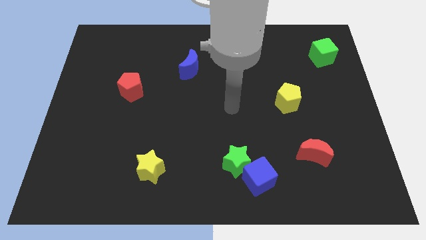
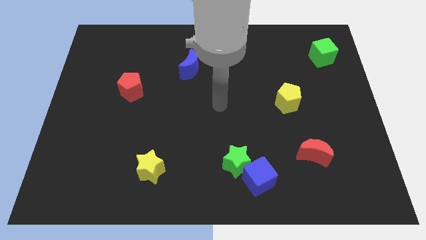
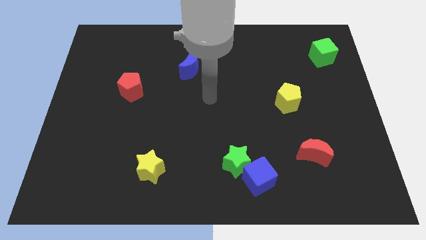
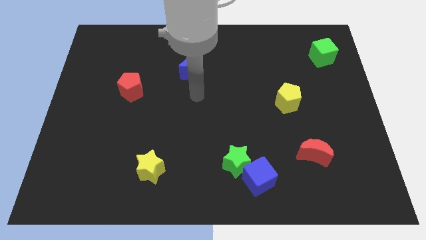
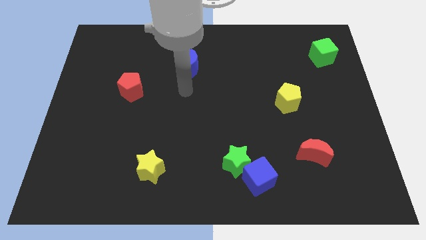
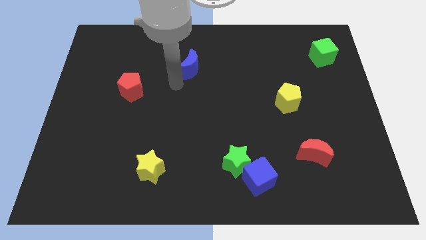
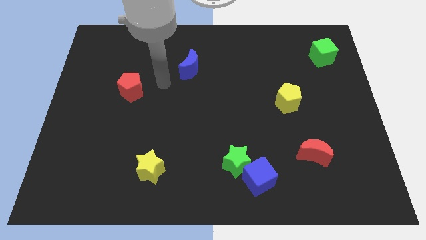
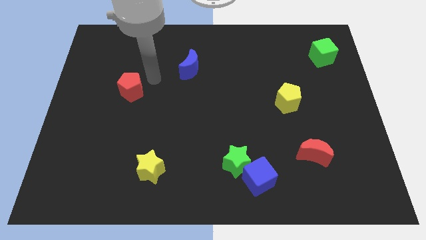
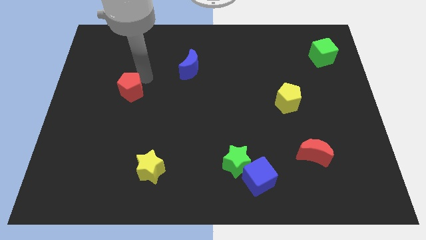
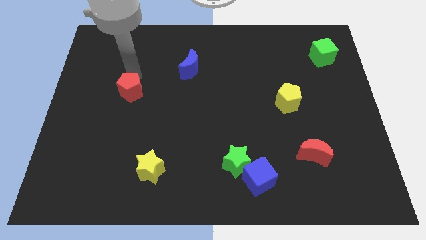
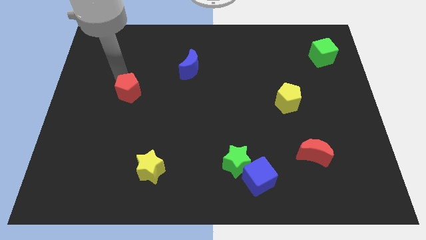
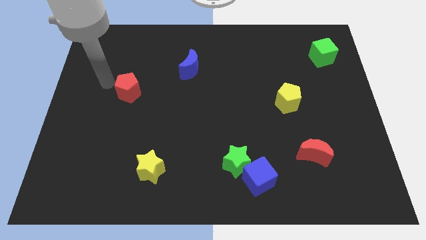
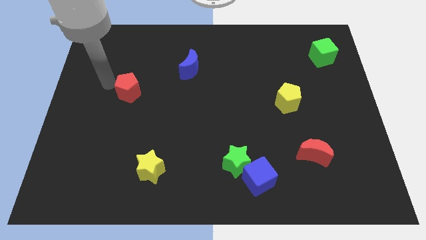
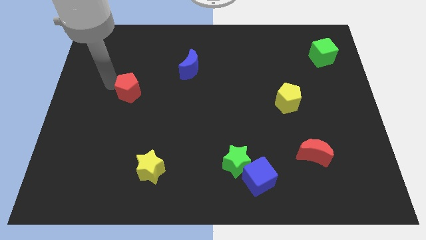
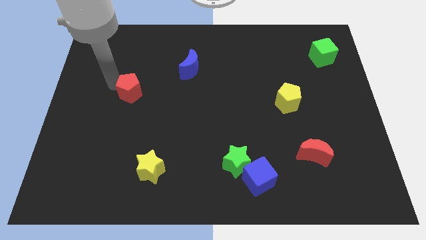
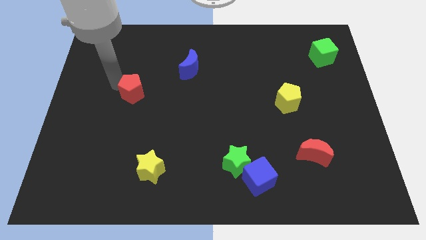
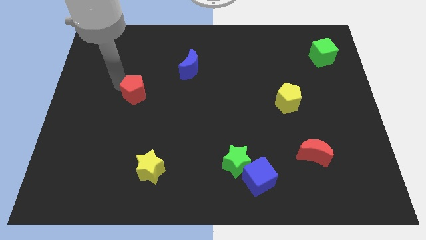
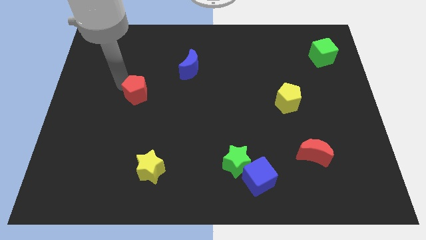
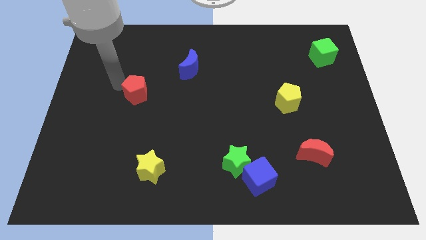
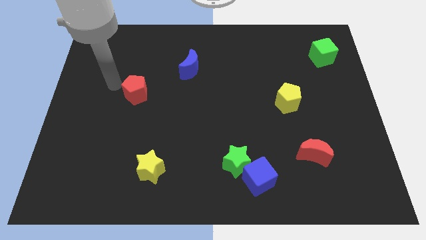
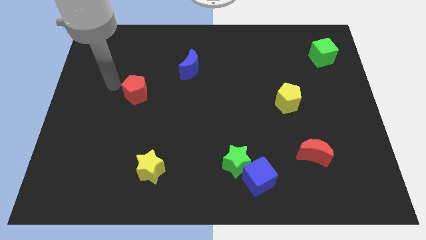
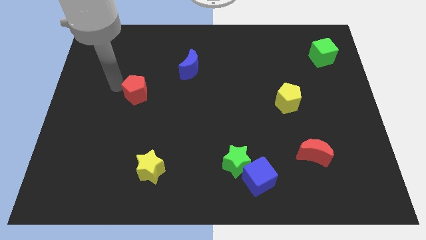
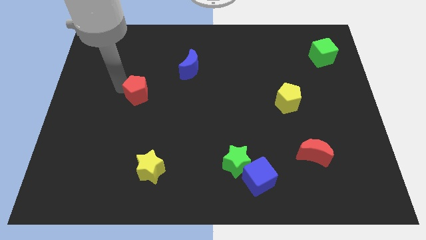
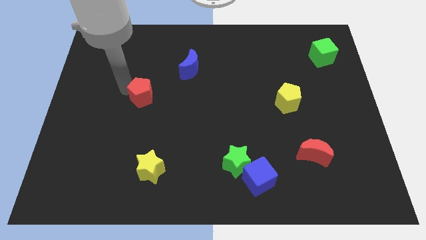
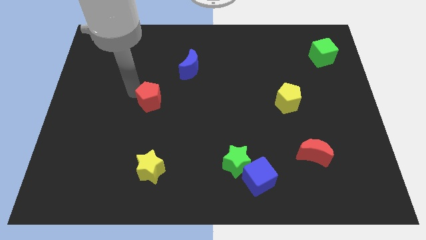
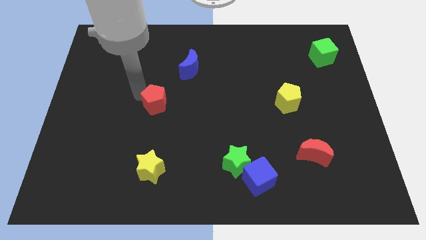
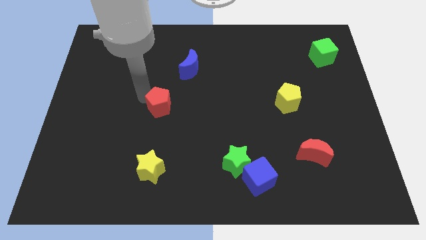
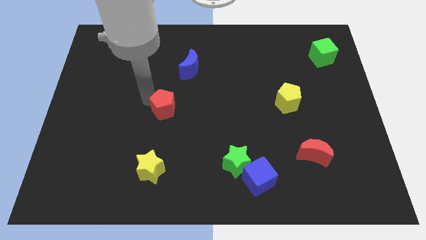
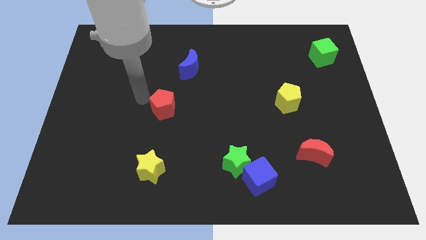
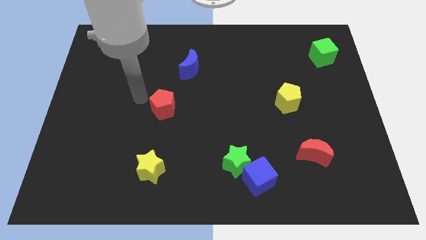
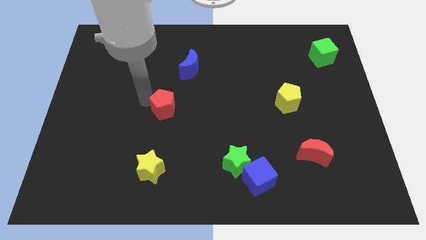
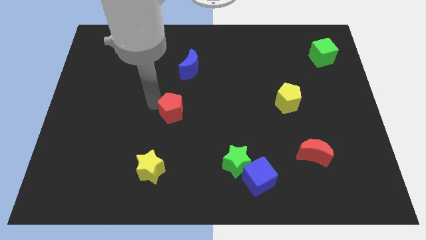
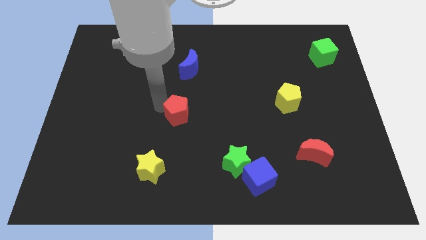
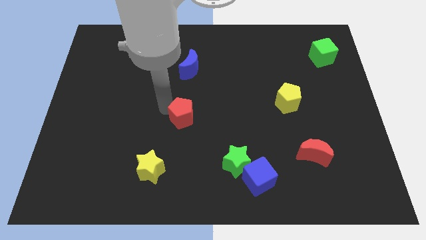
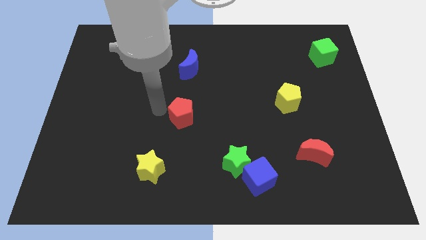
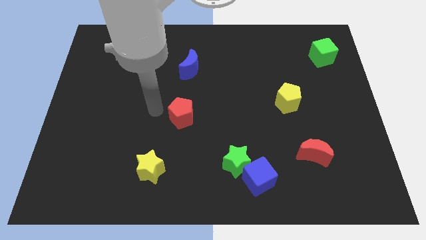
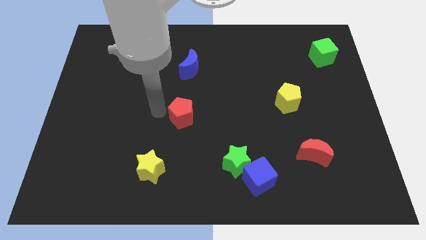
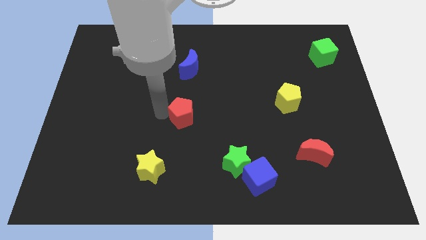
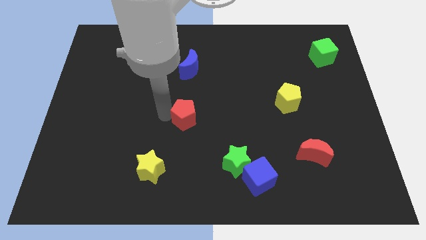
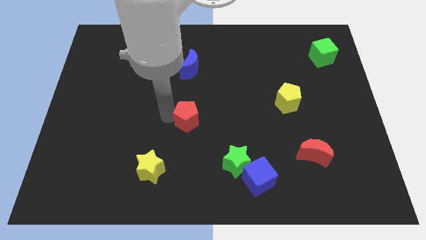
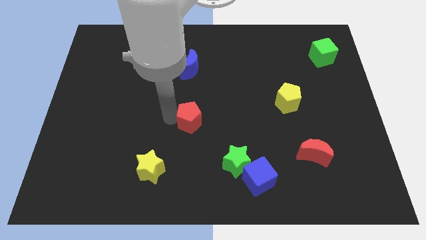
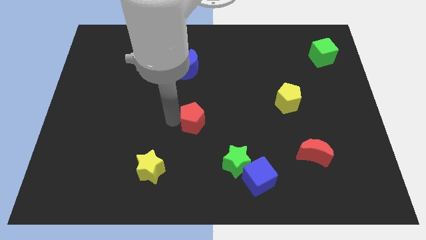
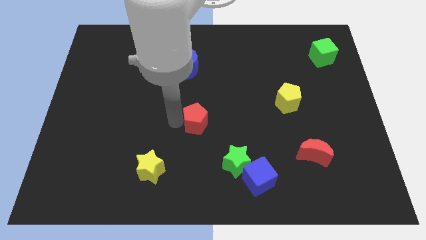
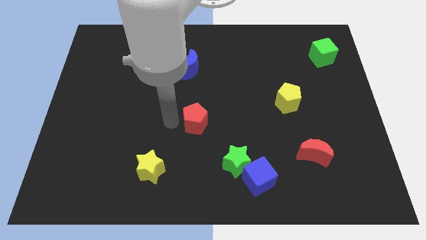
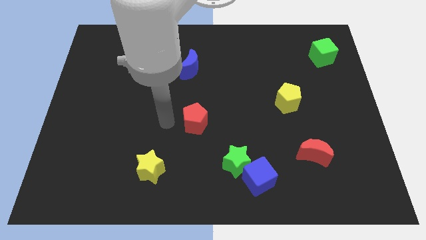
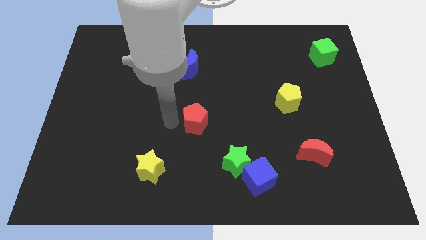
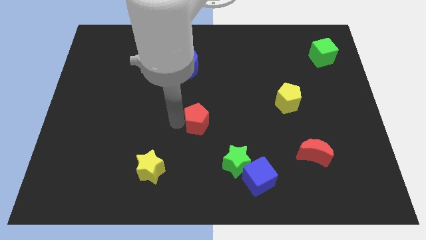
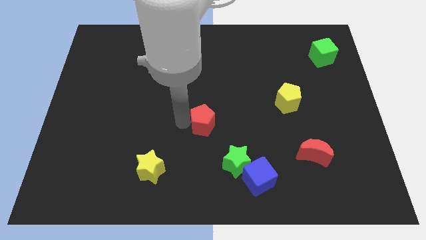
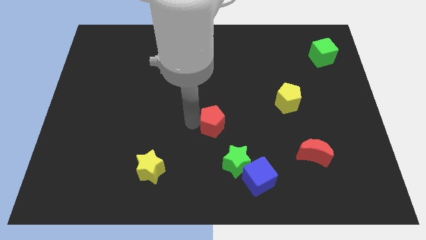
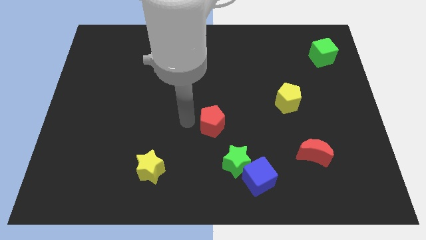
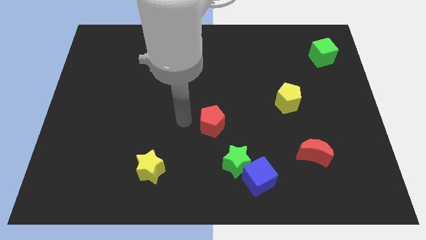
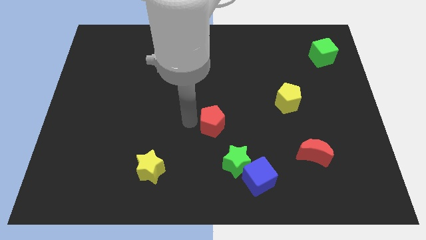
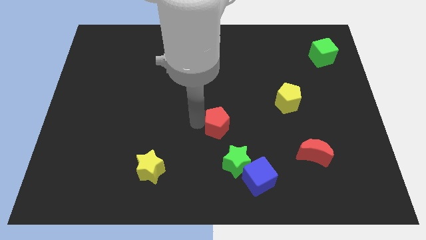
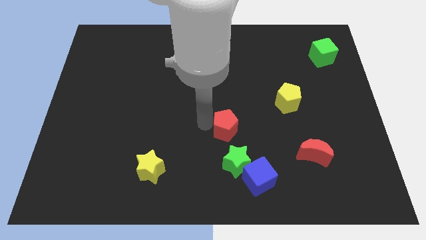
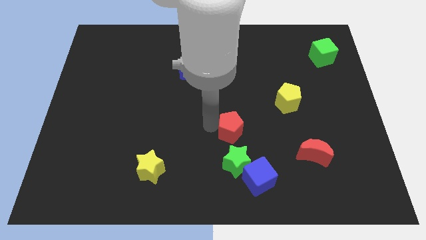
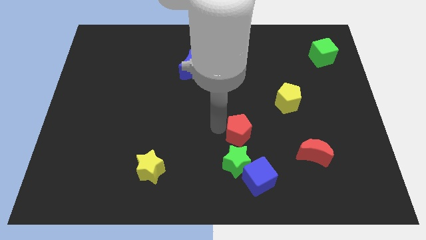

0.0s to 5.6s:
move the red pentagon above the blue cube

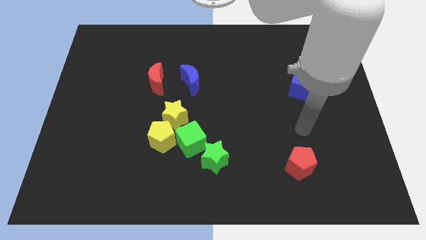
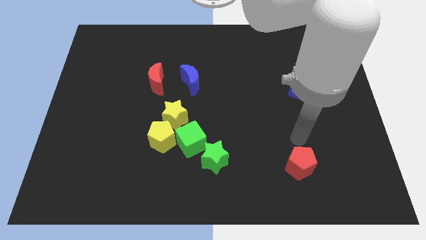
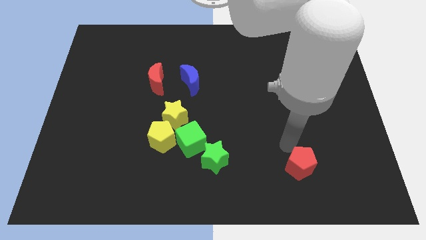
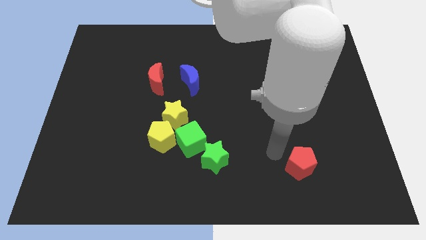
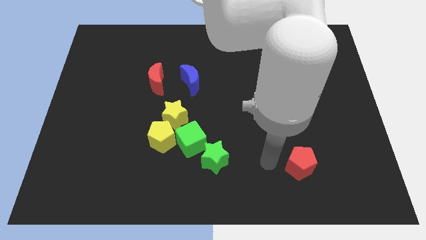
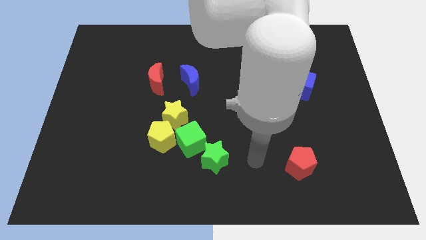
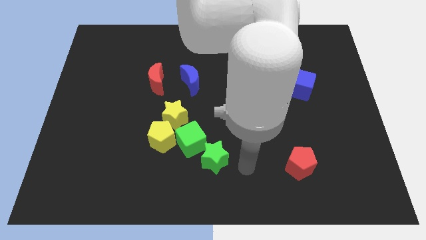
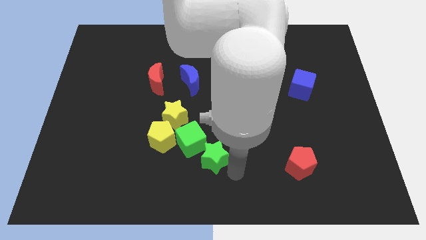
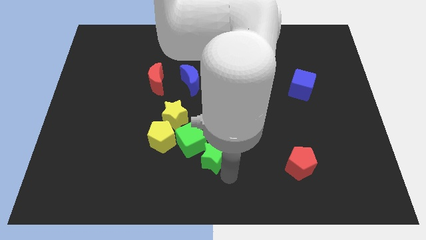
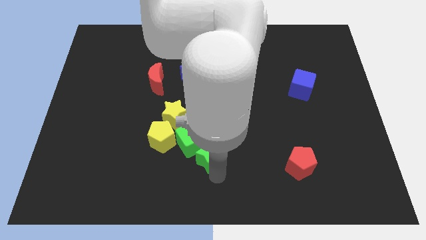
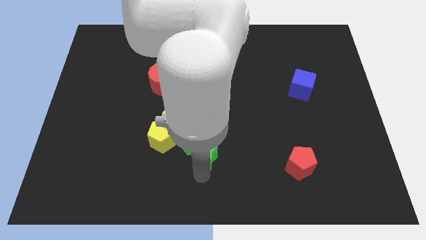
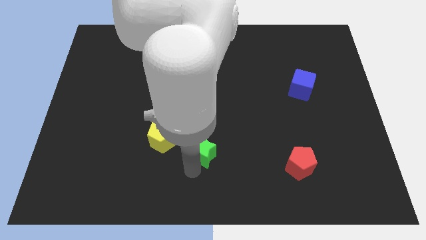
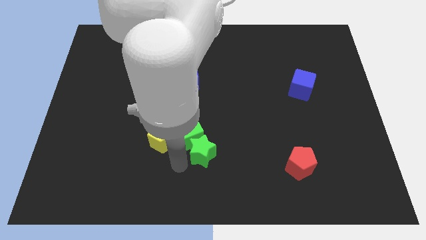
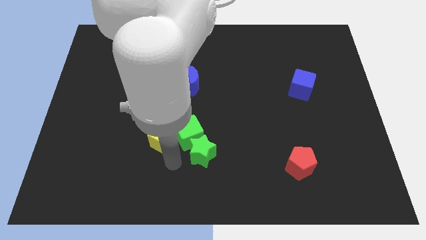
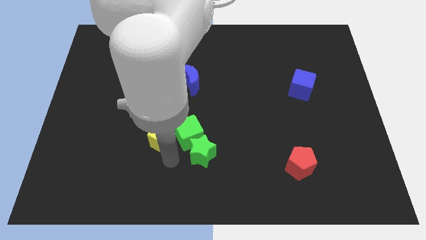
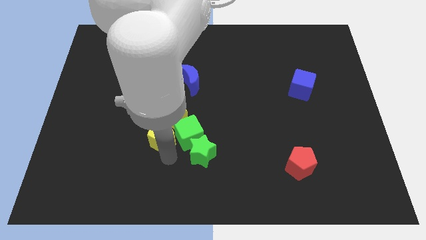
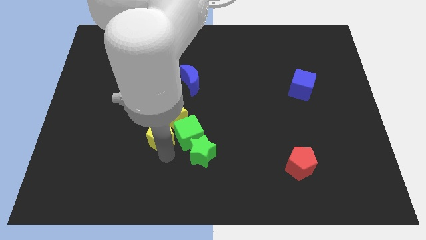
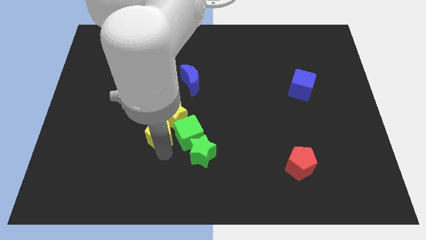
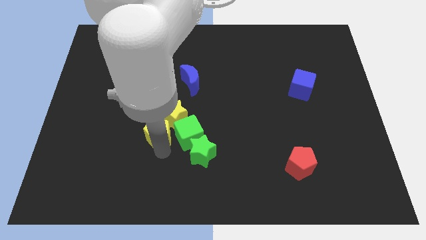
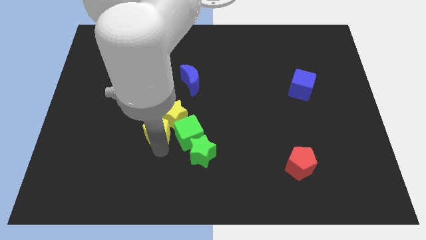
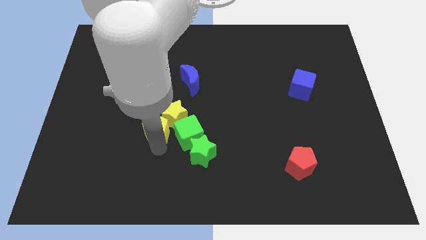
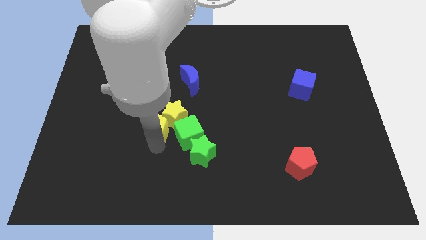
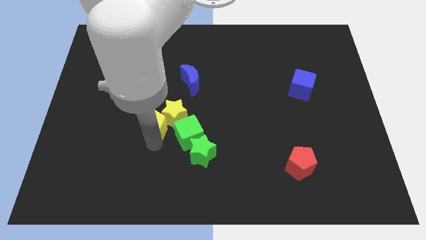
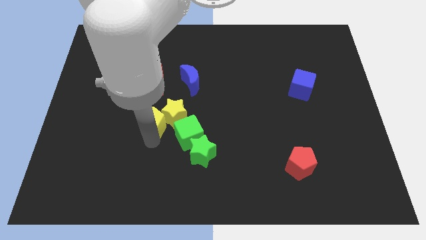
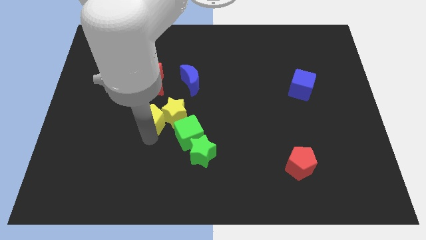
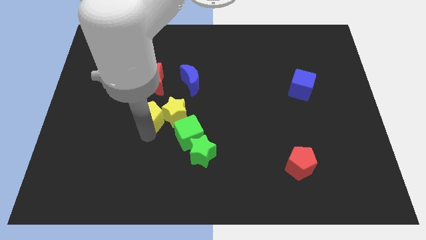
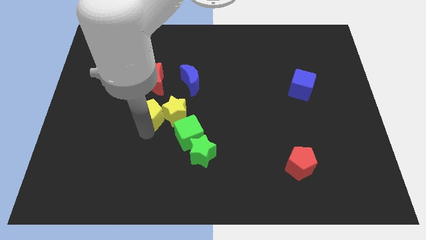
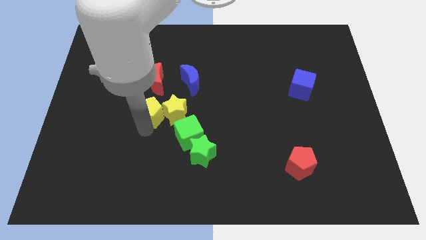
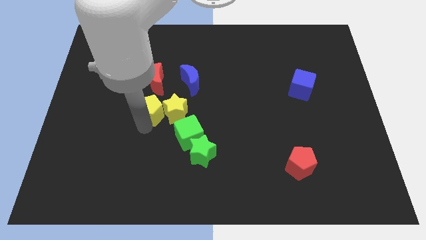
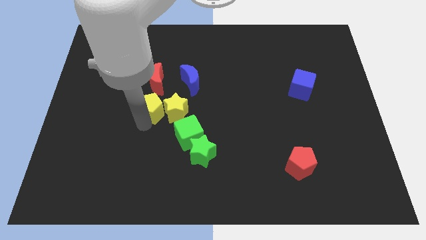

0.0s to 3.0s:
put the yellow pentagon diagonally down and to the left of the blue moon
